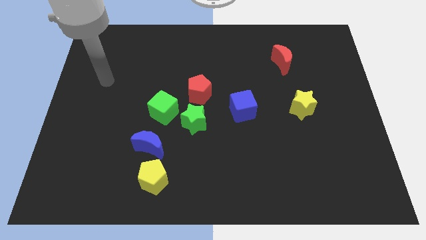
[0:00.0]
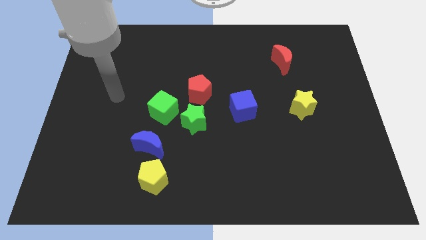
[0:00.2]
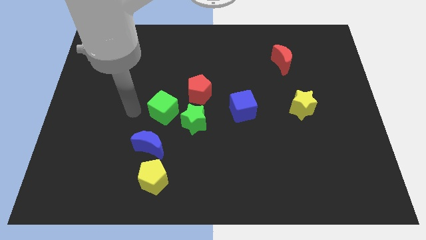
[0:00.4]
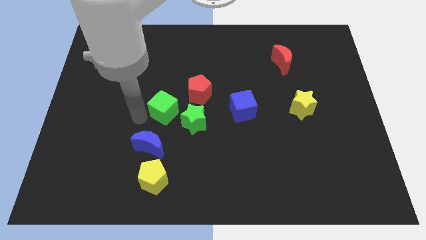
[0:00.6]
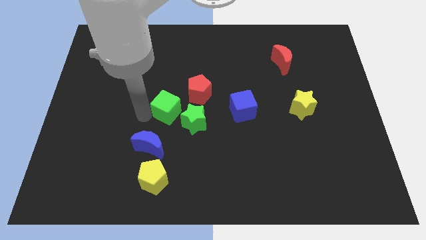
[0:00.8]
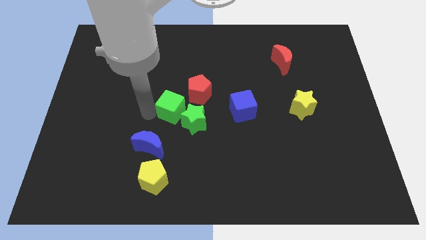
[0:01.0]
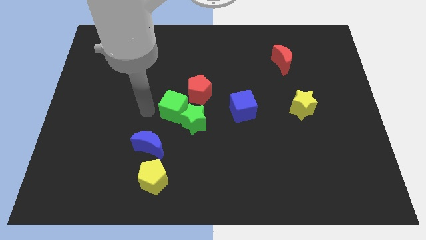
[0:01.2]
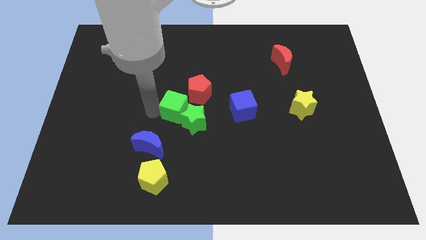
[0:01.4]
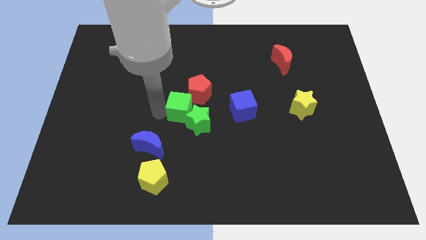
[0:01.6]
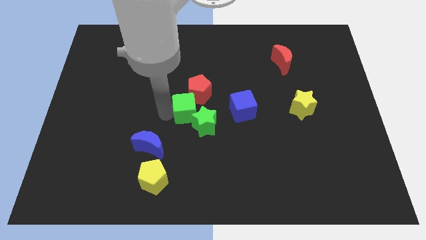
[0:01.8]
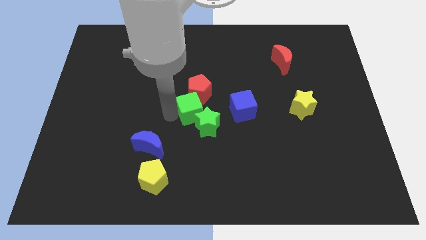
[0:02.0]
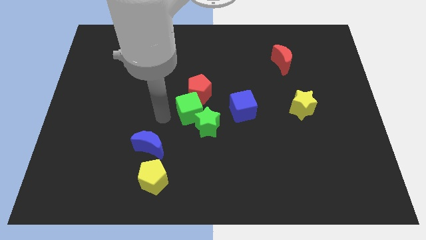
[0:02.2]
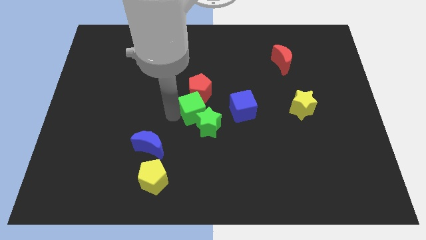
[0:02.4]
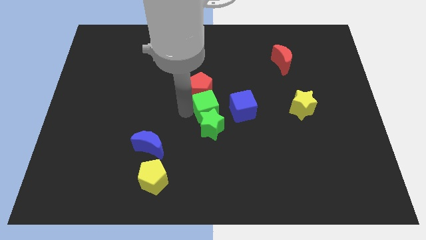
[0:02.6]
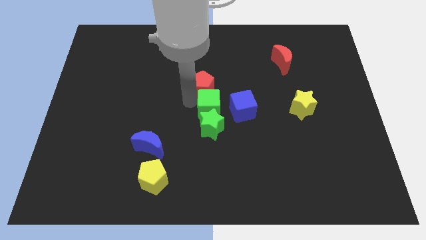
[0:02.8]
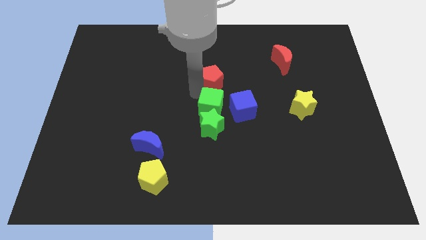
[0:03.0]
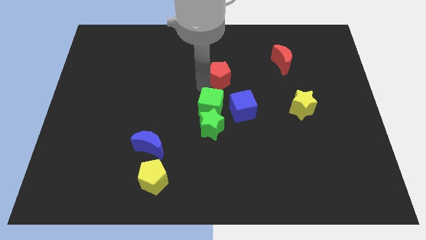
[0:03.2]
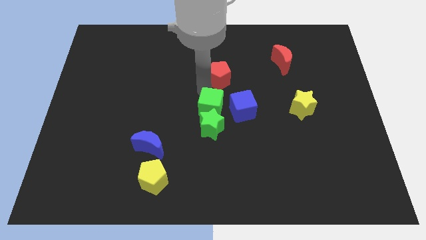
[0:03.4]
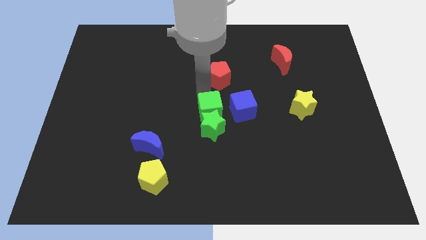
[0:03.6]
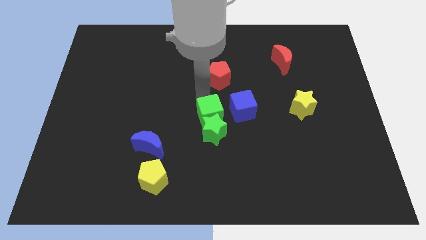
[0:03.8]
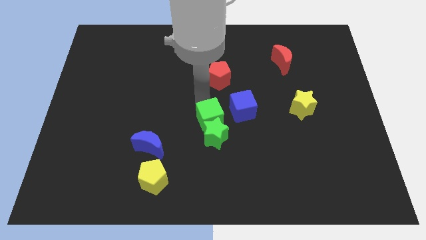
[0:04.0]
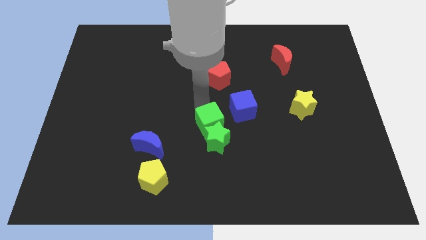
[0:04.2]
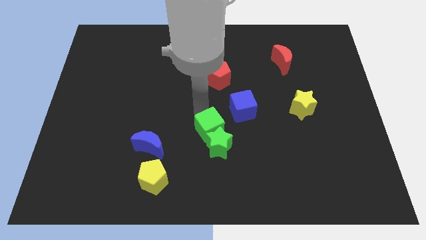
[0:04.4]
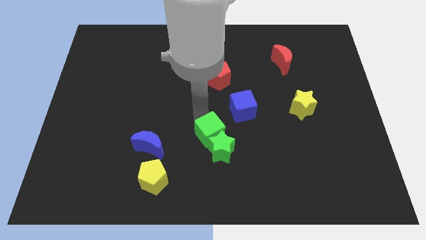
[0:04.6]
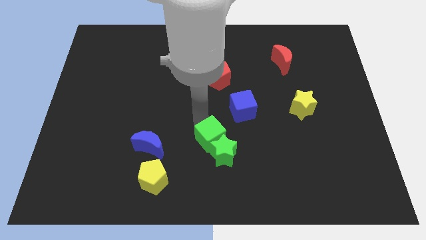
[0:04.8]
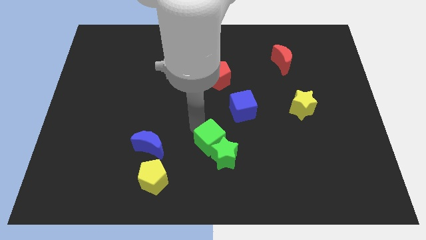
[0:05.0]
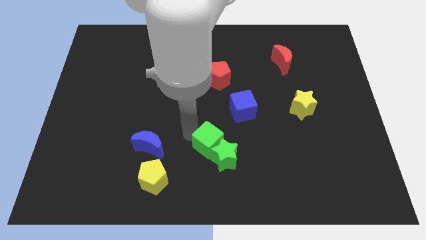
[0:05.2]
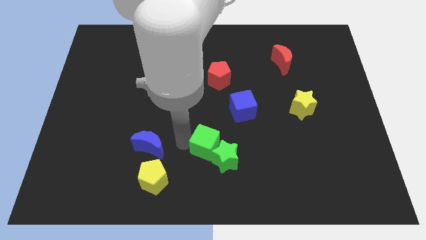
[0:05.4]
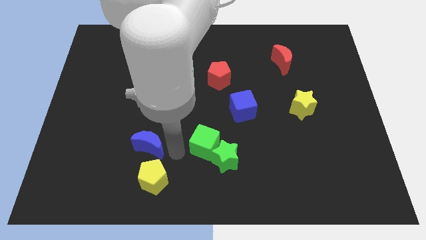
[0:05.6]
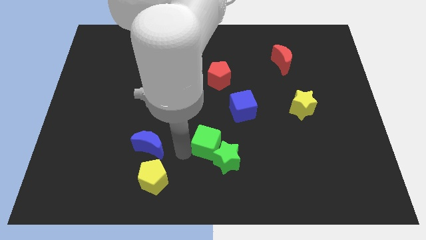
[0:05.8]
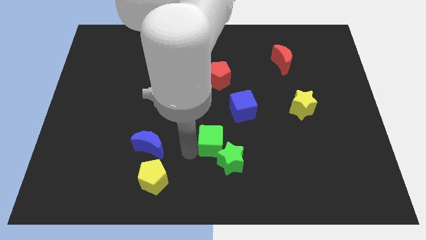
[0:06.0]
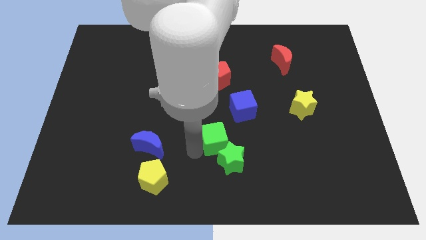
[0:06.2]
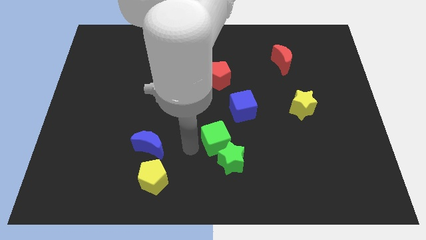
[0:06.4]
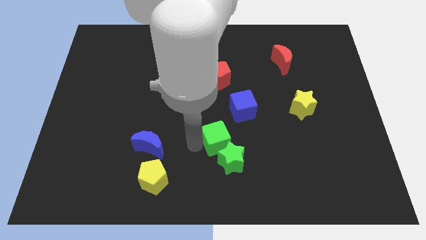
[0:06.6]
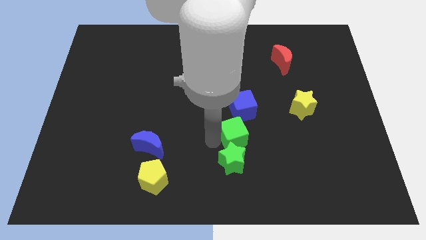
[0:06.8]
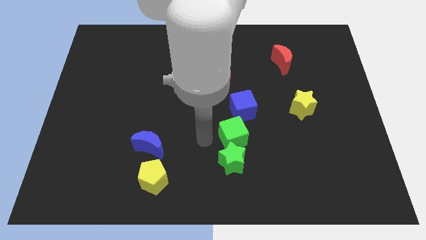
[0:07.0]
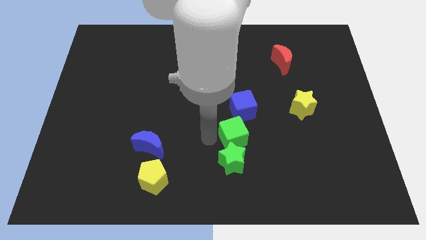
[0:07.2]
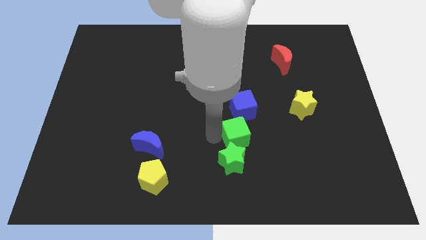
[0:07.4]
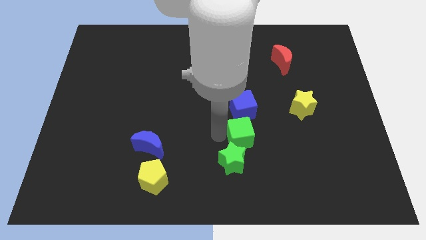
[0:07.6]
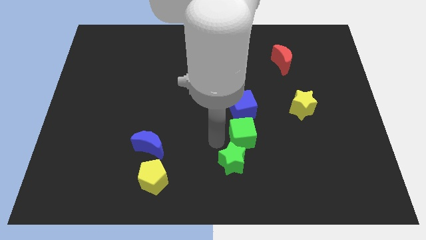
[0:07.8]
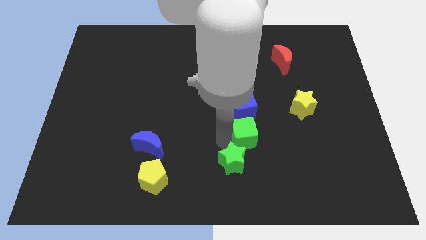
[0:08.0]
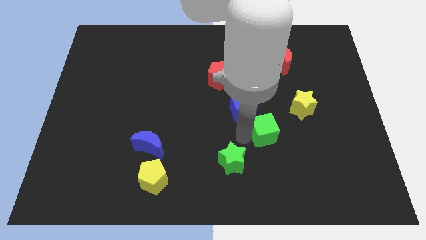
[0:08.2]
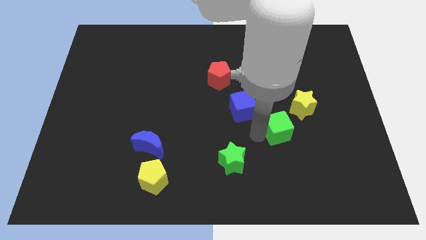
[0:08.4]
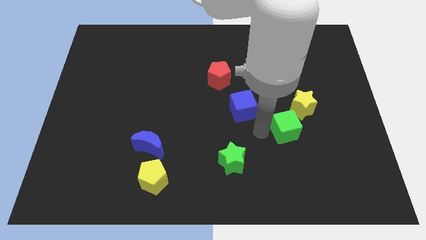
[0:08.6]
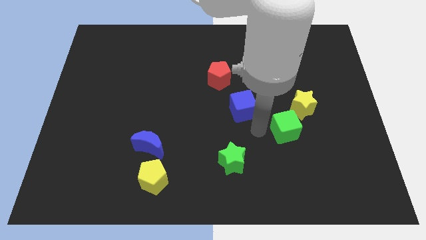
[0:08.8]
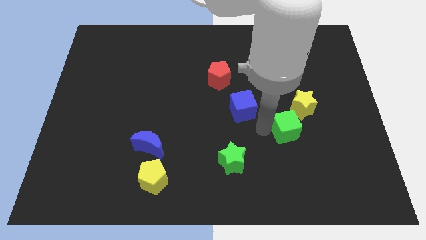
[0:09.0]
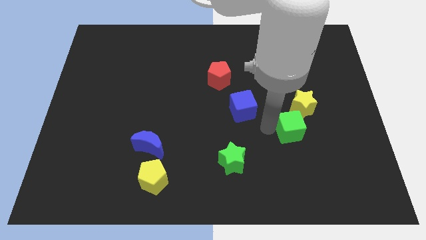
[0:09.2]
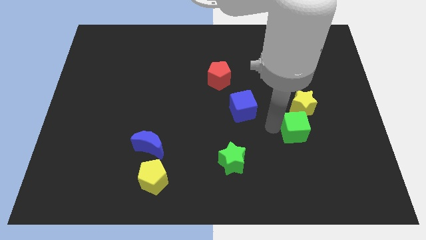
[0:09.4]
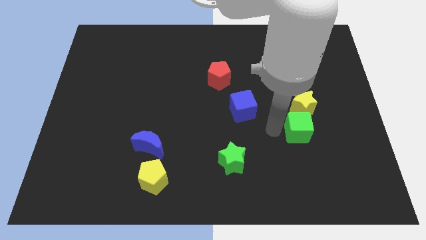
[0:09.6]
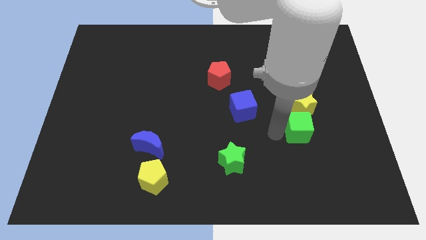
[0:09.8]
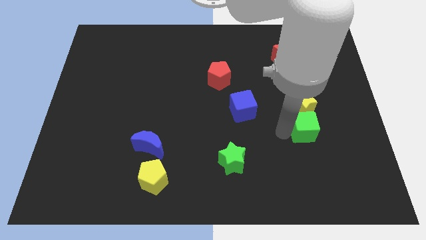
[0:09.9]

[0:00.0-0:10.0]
move the green cube diagonally down and to the right of the yellow star

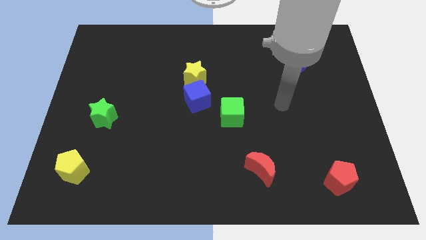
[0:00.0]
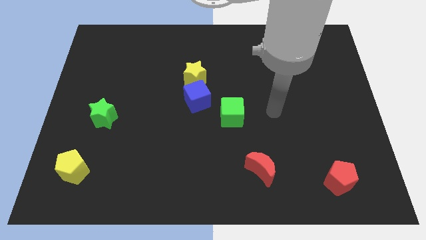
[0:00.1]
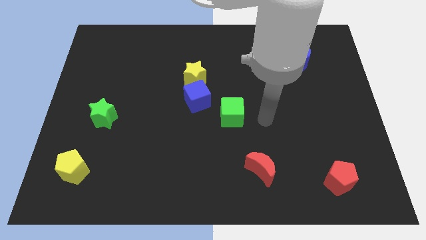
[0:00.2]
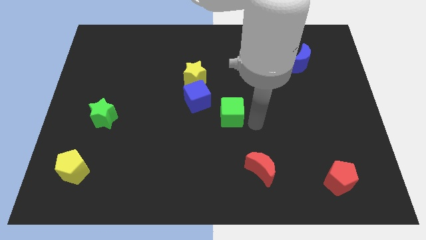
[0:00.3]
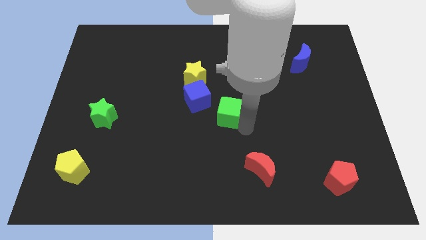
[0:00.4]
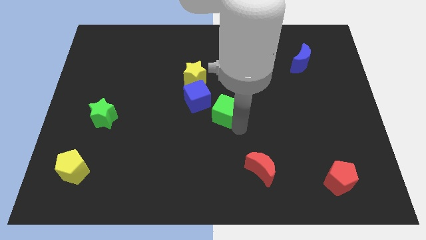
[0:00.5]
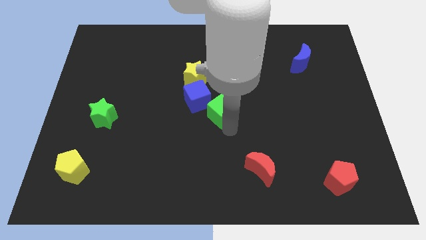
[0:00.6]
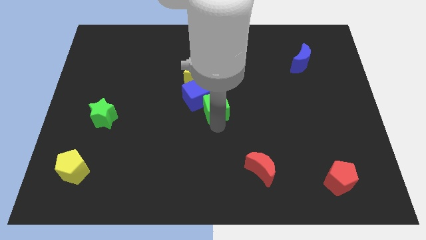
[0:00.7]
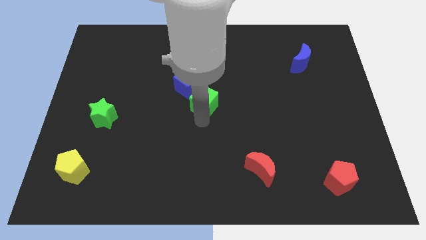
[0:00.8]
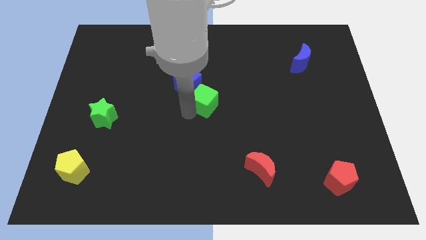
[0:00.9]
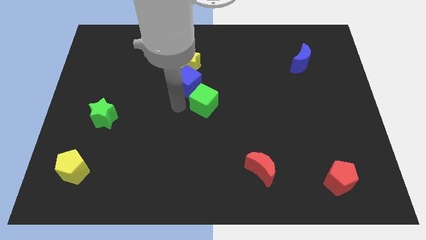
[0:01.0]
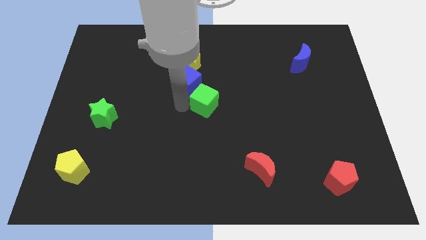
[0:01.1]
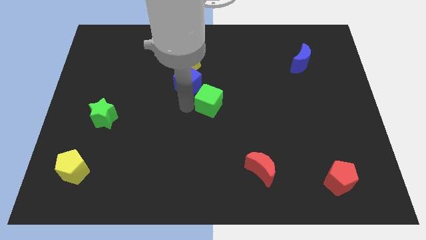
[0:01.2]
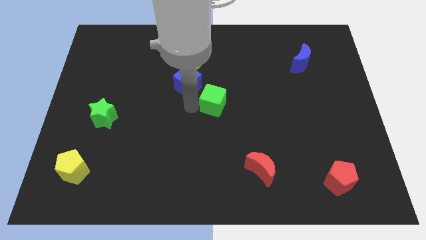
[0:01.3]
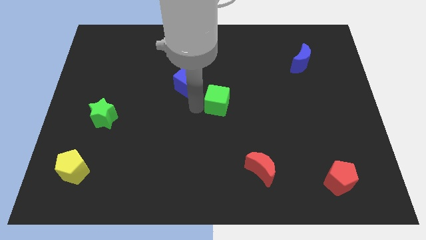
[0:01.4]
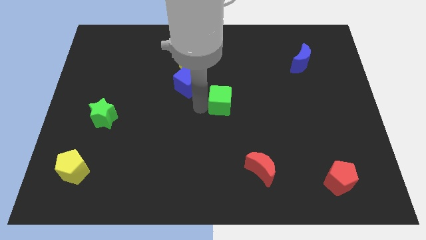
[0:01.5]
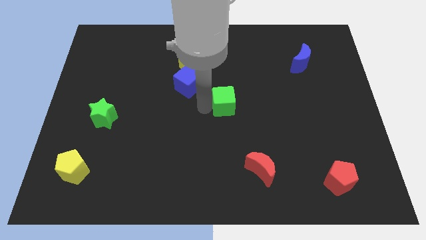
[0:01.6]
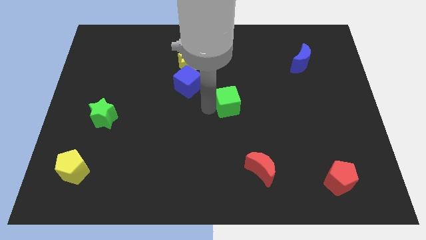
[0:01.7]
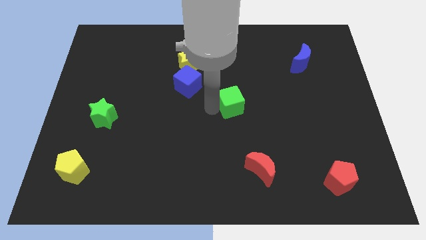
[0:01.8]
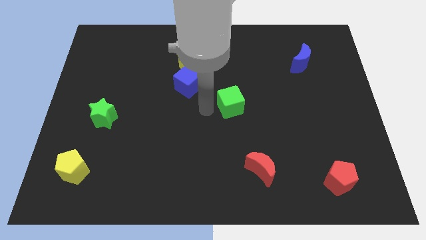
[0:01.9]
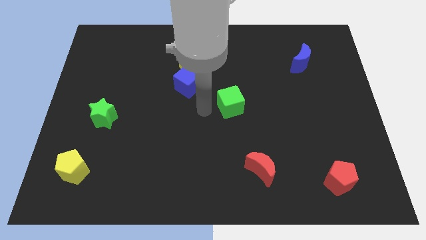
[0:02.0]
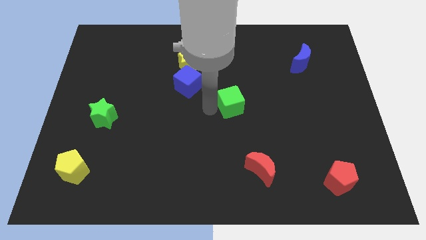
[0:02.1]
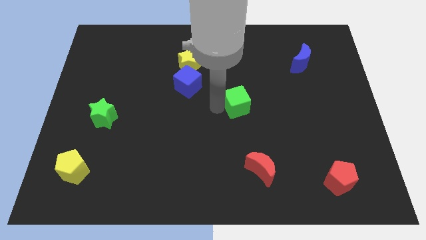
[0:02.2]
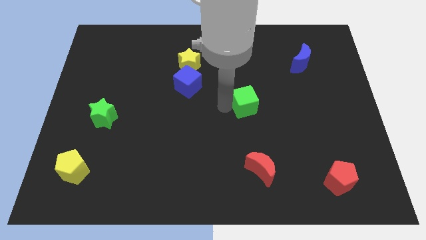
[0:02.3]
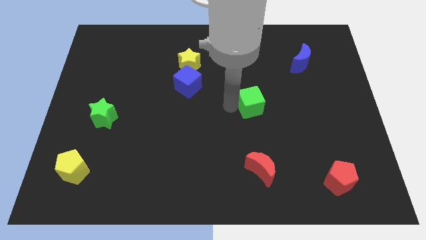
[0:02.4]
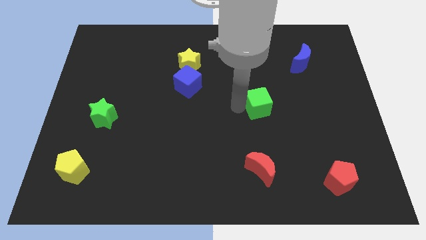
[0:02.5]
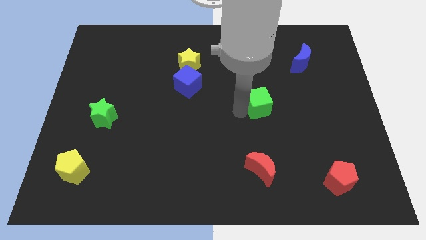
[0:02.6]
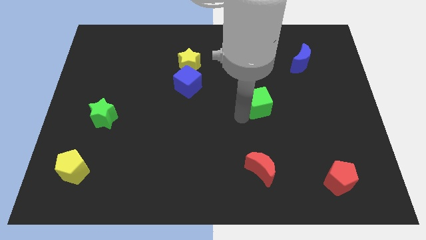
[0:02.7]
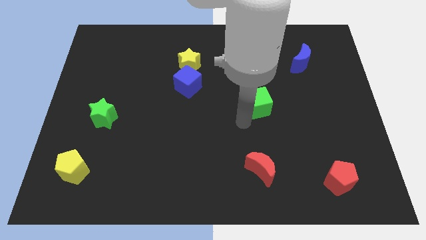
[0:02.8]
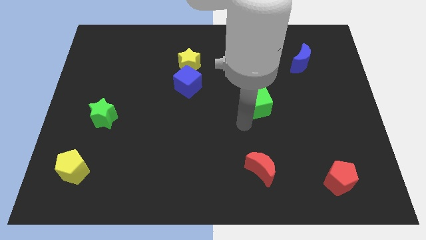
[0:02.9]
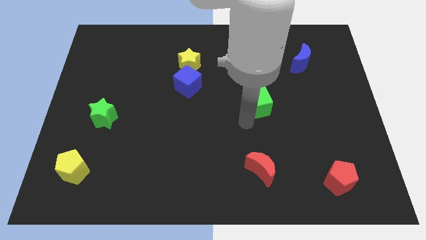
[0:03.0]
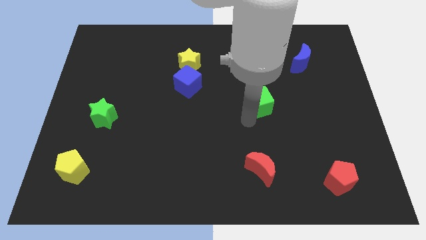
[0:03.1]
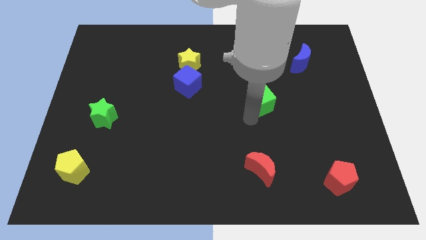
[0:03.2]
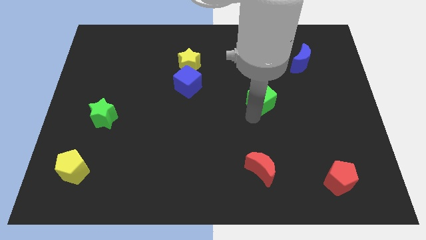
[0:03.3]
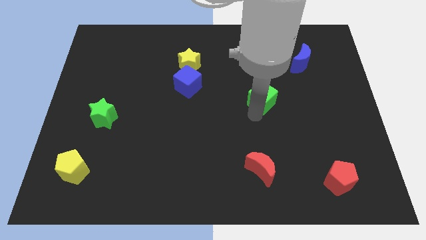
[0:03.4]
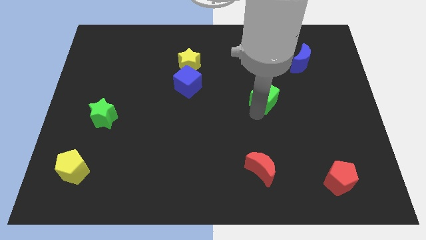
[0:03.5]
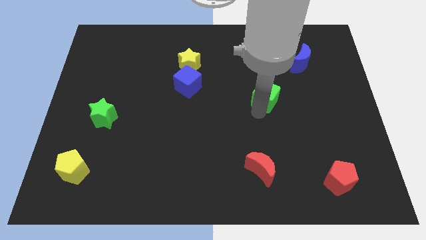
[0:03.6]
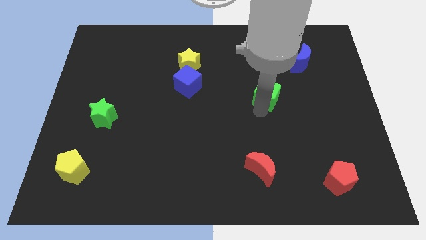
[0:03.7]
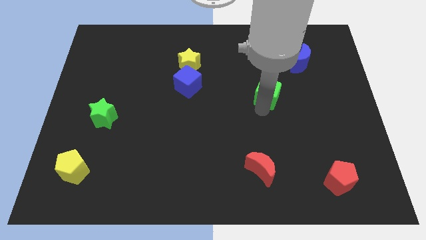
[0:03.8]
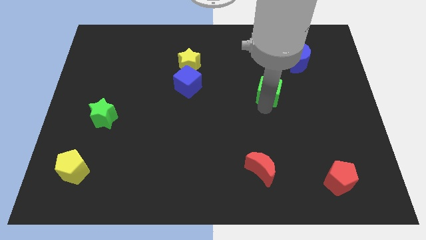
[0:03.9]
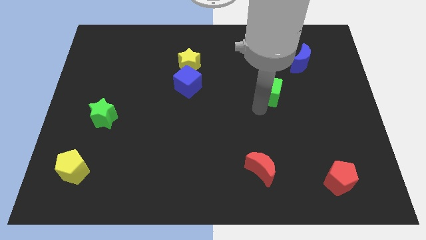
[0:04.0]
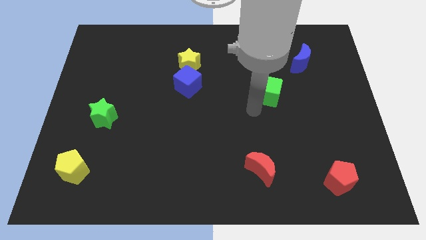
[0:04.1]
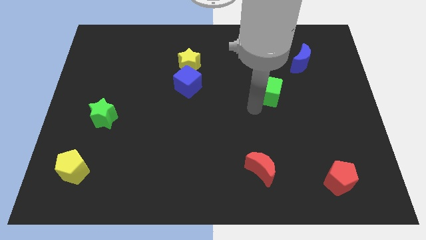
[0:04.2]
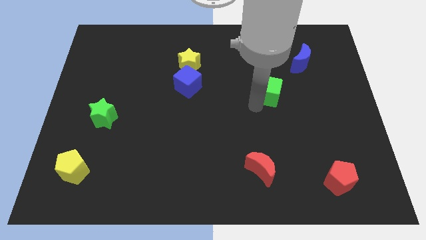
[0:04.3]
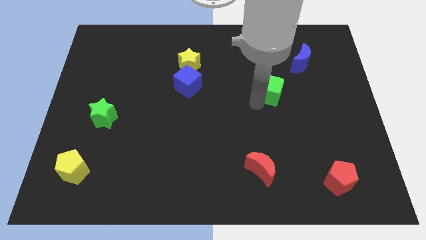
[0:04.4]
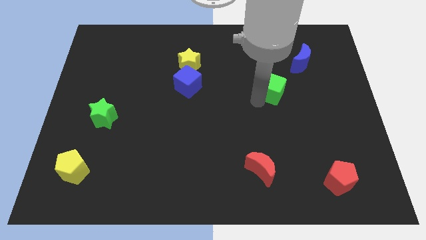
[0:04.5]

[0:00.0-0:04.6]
push the green cube to the bottom left side of the blue moon
